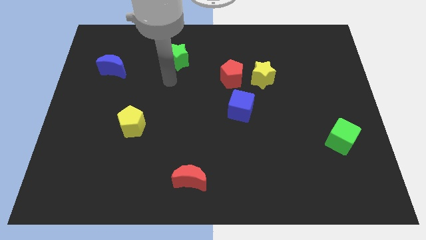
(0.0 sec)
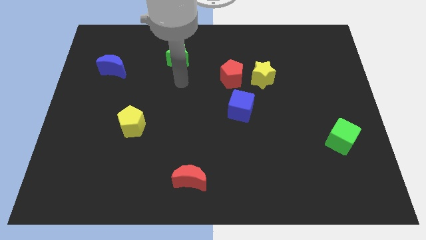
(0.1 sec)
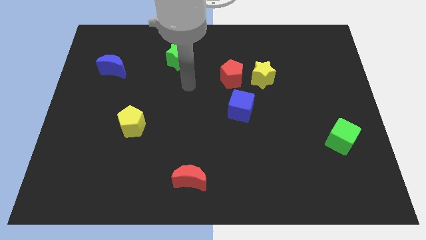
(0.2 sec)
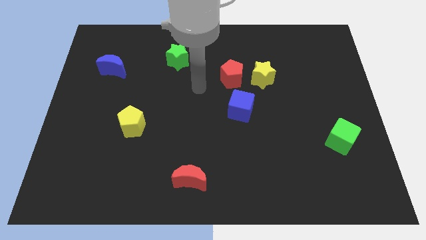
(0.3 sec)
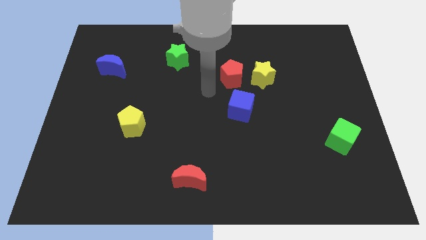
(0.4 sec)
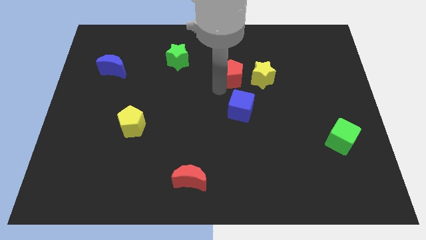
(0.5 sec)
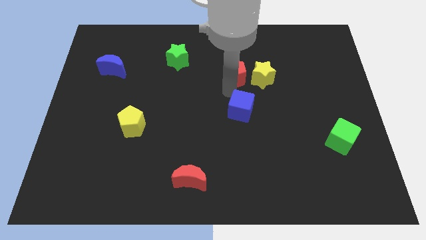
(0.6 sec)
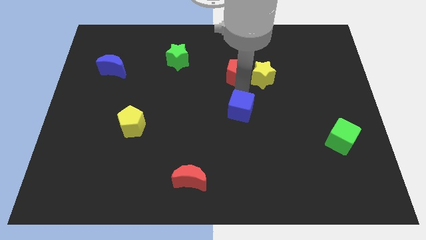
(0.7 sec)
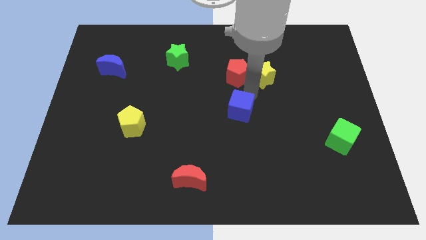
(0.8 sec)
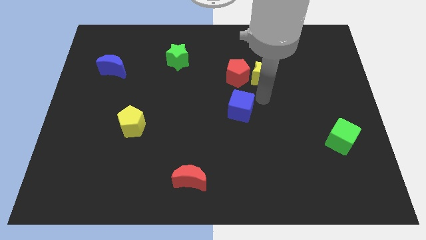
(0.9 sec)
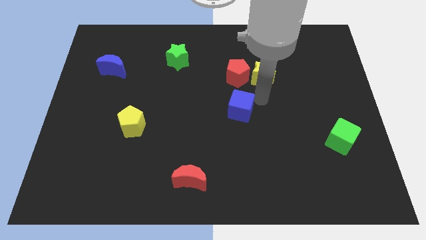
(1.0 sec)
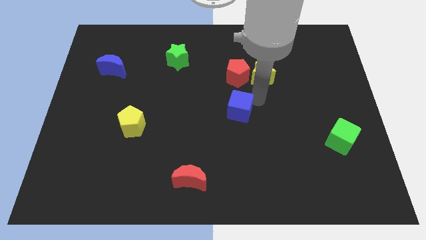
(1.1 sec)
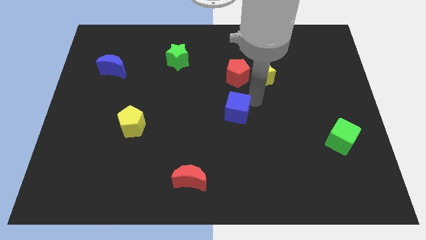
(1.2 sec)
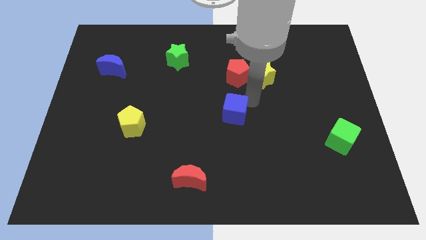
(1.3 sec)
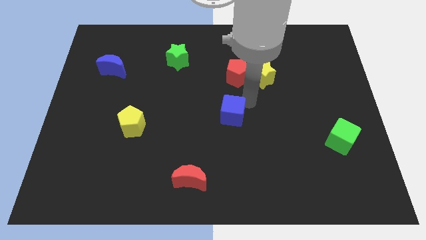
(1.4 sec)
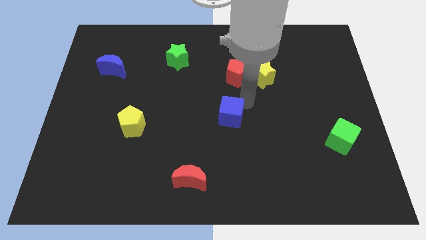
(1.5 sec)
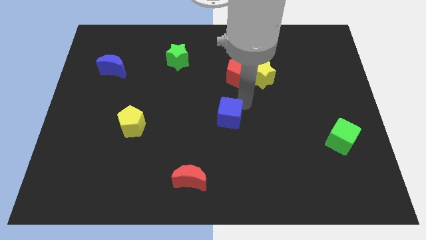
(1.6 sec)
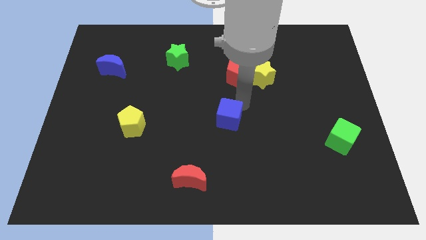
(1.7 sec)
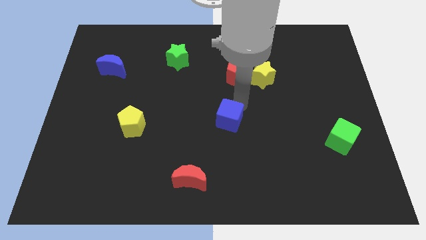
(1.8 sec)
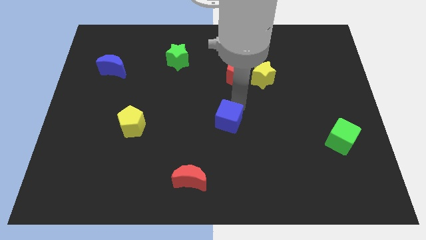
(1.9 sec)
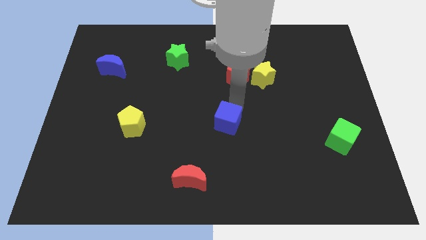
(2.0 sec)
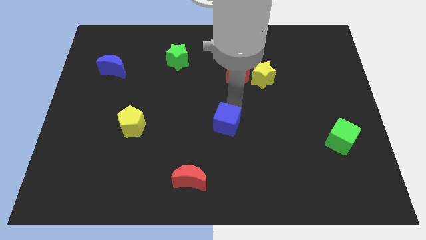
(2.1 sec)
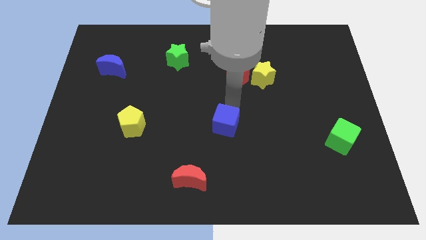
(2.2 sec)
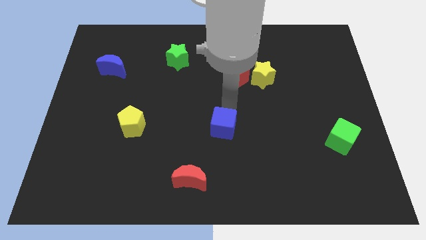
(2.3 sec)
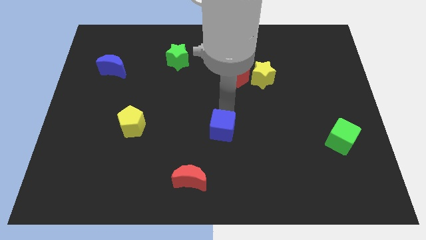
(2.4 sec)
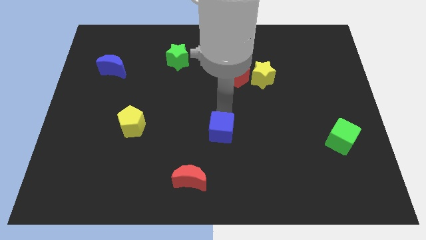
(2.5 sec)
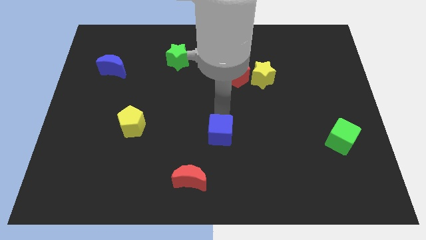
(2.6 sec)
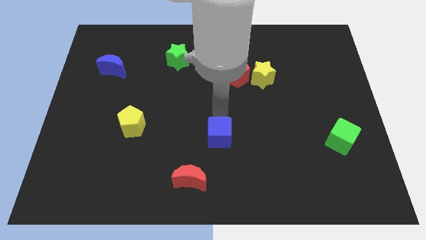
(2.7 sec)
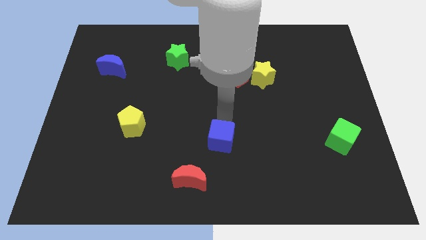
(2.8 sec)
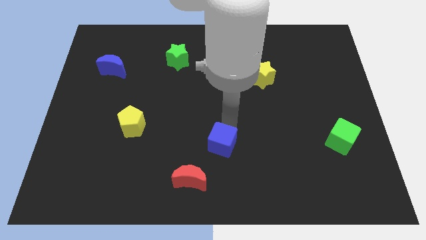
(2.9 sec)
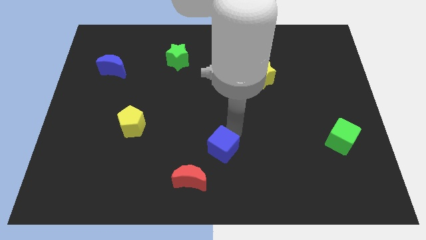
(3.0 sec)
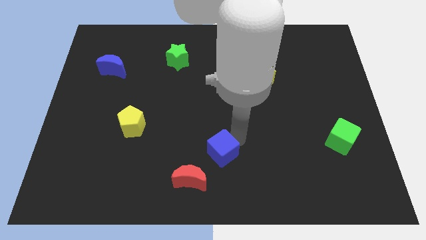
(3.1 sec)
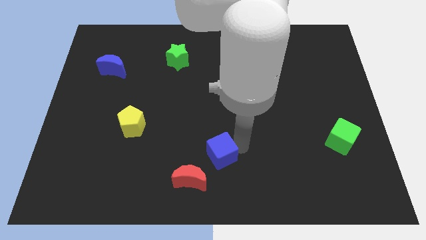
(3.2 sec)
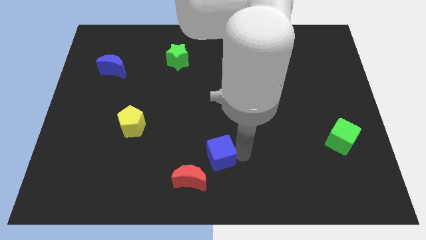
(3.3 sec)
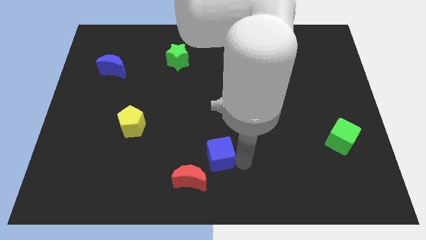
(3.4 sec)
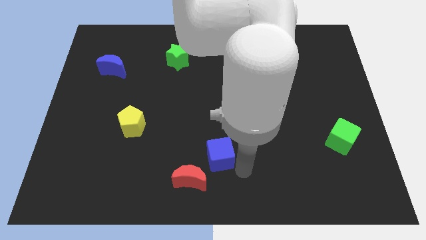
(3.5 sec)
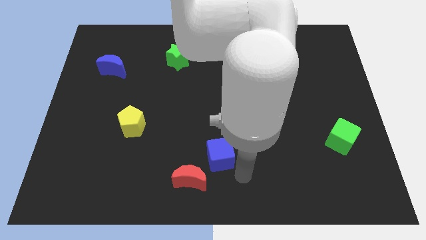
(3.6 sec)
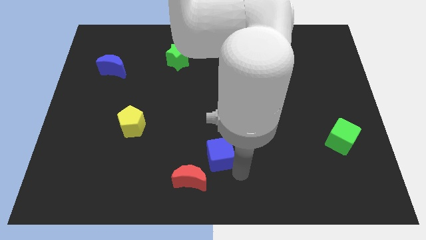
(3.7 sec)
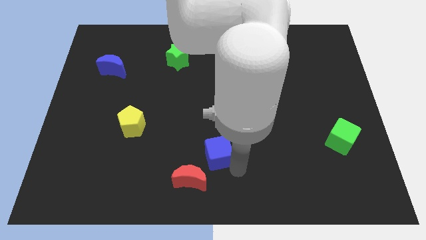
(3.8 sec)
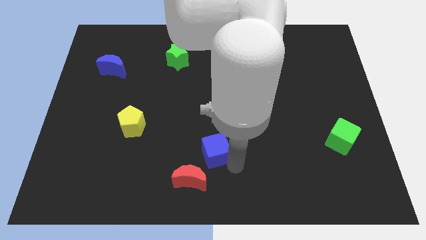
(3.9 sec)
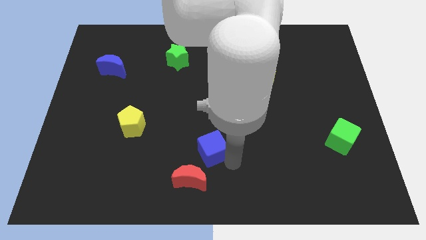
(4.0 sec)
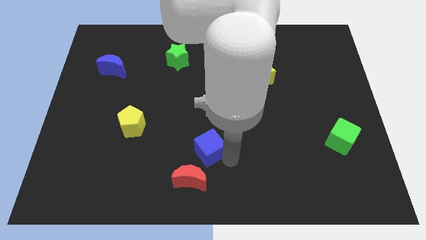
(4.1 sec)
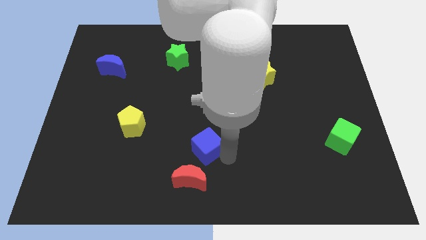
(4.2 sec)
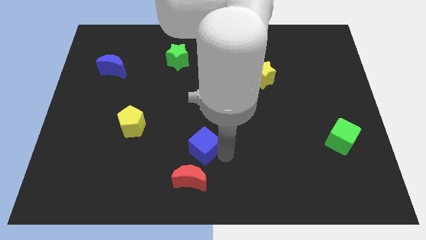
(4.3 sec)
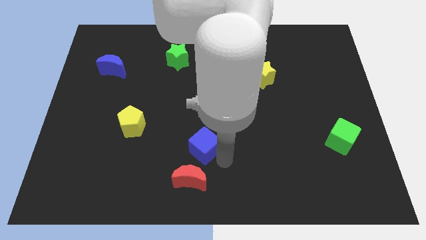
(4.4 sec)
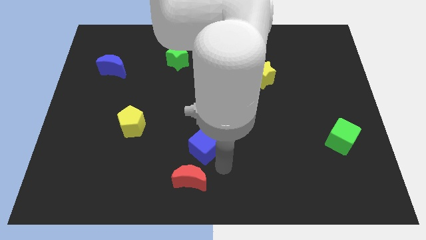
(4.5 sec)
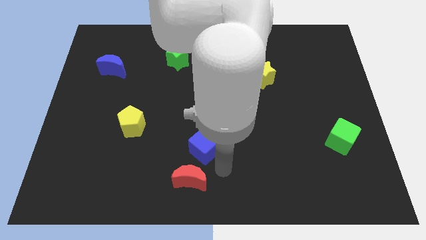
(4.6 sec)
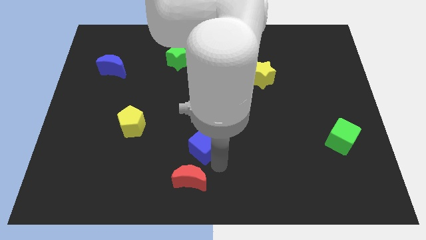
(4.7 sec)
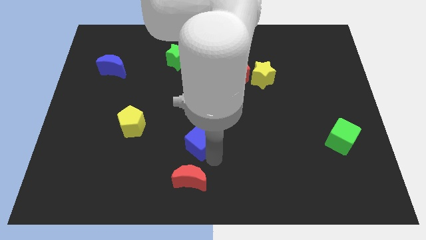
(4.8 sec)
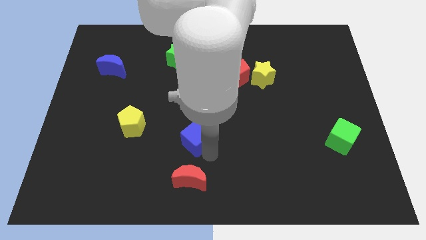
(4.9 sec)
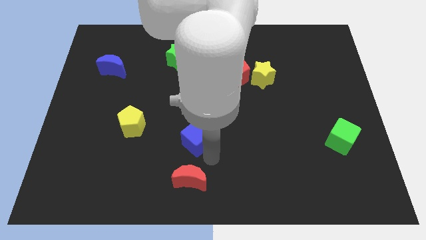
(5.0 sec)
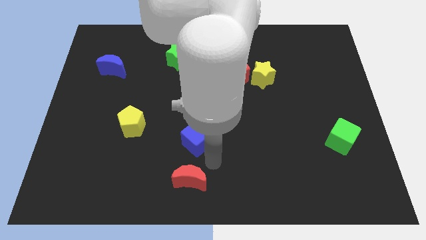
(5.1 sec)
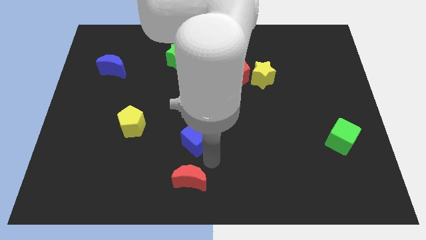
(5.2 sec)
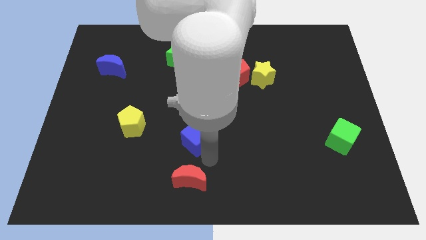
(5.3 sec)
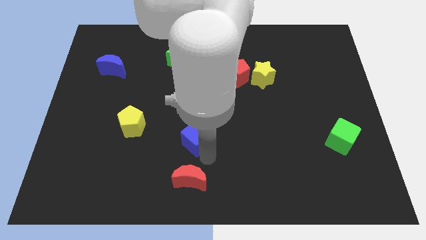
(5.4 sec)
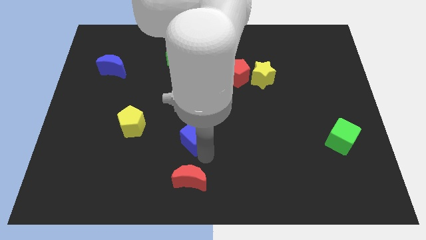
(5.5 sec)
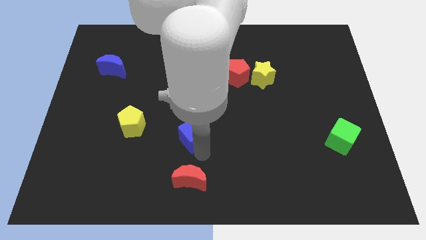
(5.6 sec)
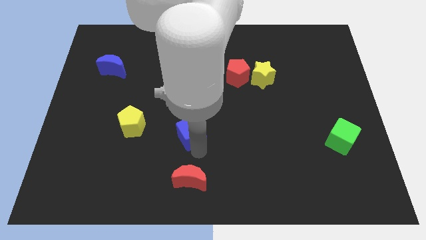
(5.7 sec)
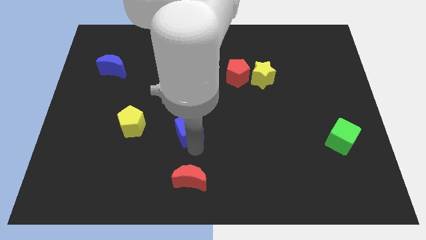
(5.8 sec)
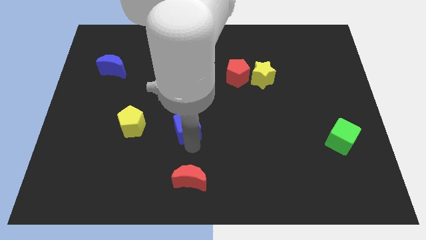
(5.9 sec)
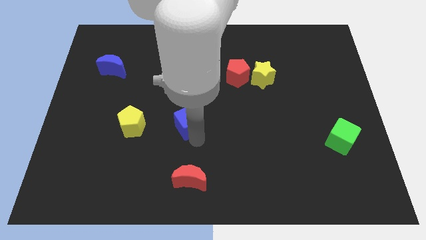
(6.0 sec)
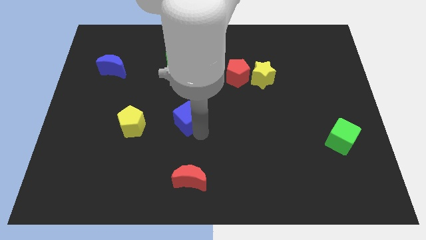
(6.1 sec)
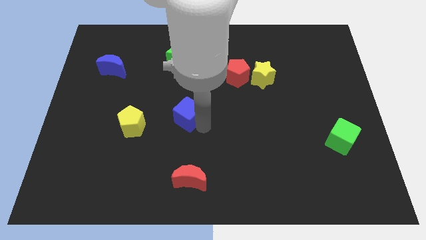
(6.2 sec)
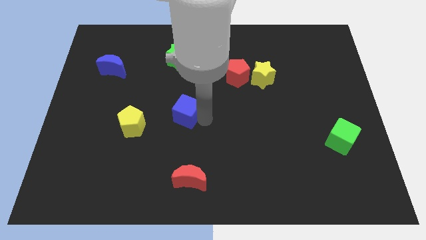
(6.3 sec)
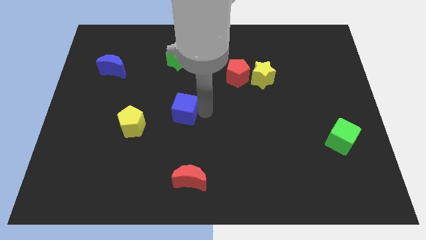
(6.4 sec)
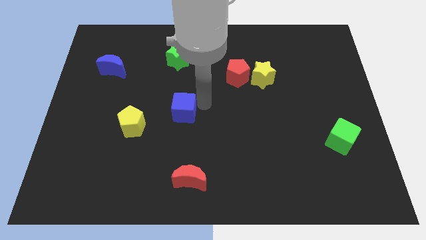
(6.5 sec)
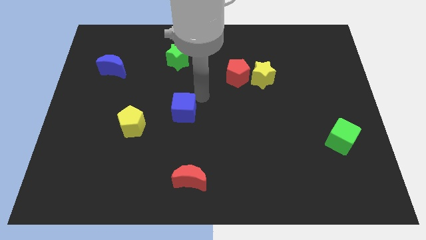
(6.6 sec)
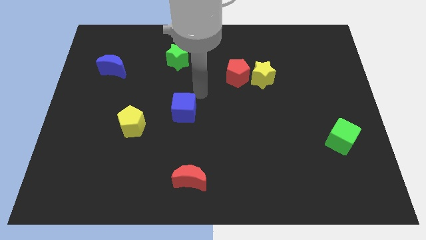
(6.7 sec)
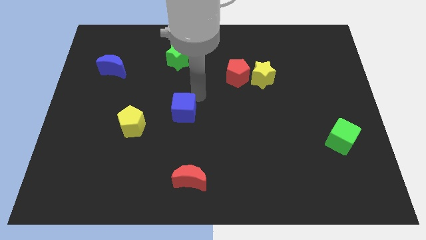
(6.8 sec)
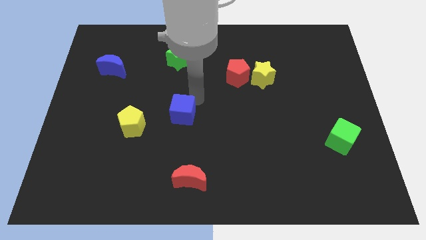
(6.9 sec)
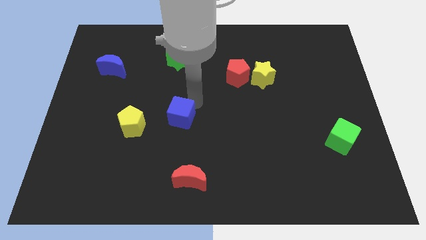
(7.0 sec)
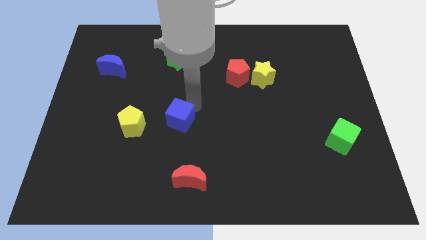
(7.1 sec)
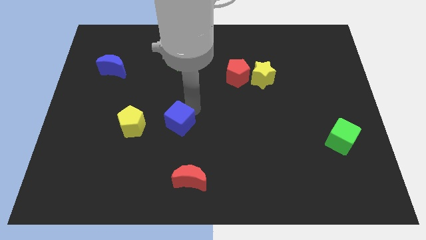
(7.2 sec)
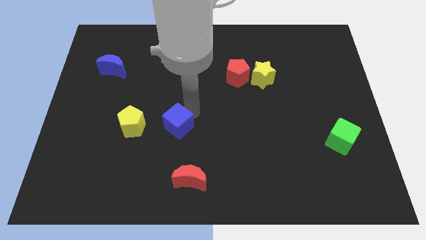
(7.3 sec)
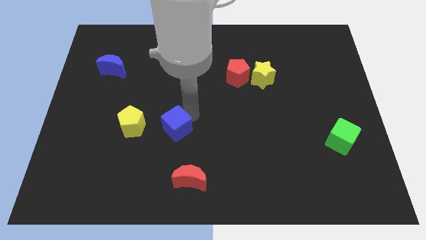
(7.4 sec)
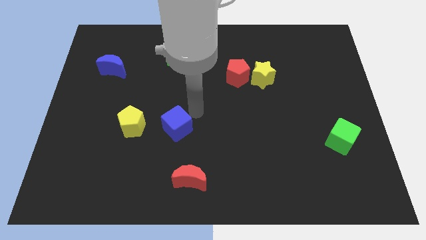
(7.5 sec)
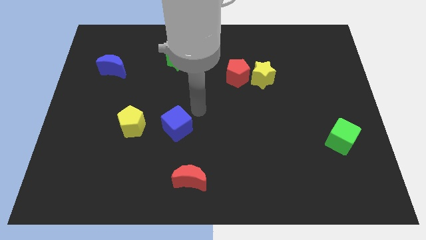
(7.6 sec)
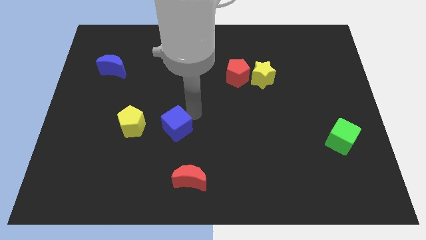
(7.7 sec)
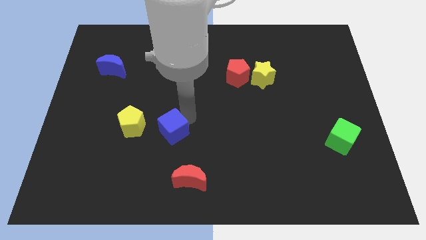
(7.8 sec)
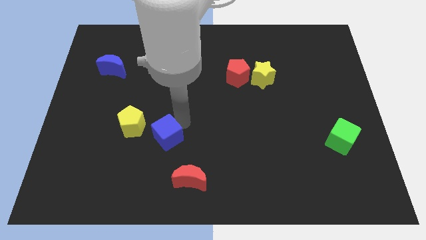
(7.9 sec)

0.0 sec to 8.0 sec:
move the blue cube to the bottom right of the yellow pentagon
